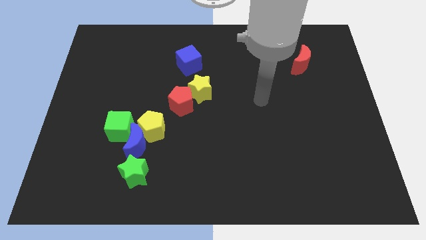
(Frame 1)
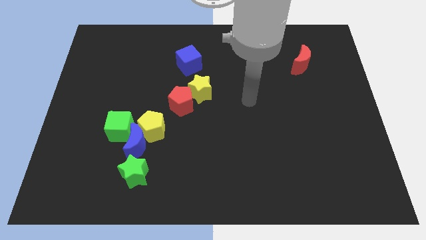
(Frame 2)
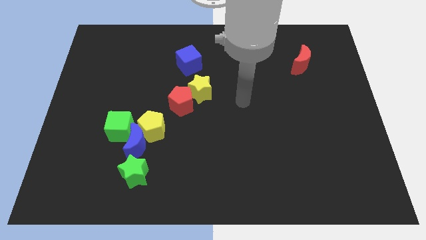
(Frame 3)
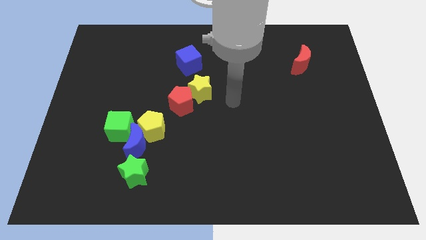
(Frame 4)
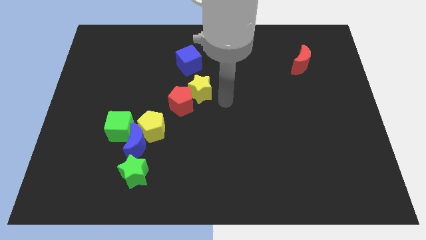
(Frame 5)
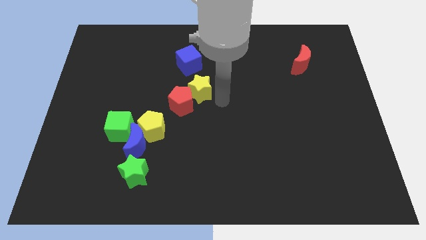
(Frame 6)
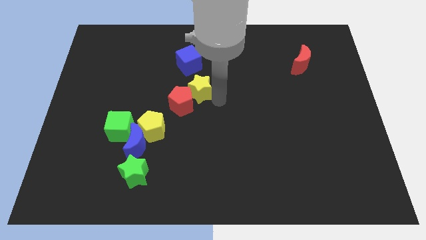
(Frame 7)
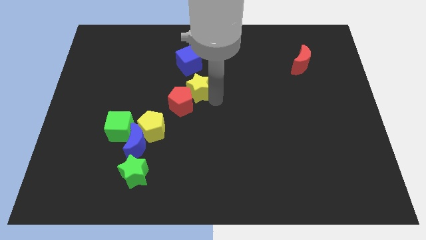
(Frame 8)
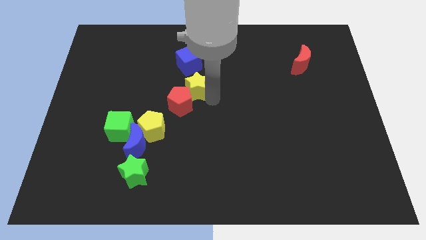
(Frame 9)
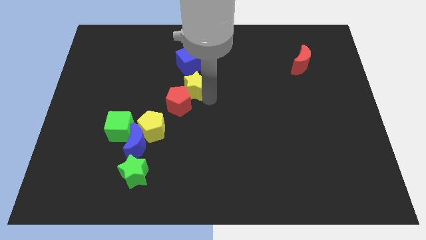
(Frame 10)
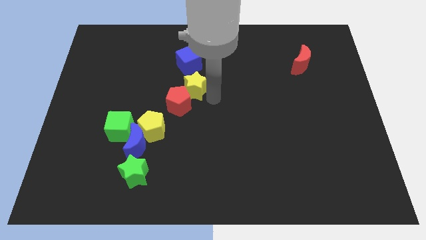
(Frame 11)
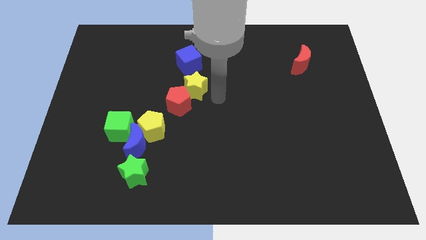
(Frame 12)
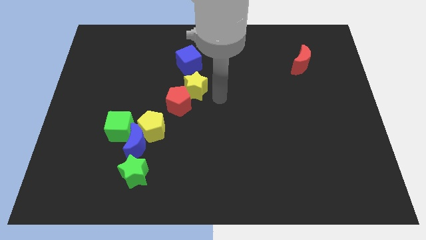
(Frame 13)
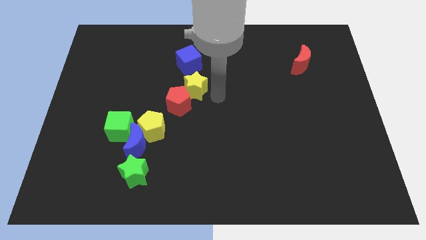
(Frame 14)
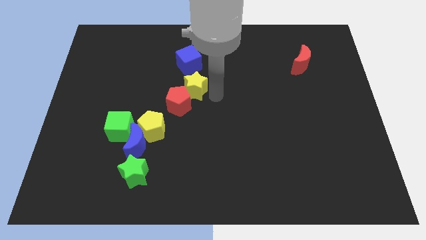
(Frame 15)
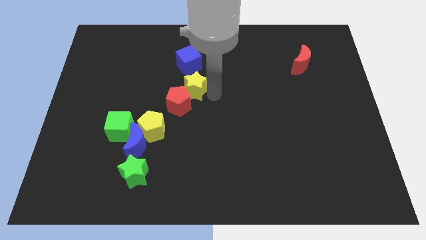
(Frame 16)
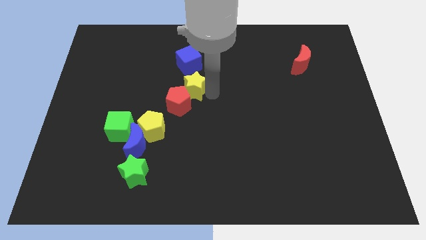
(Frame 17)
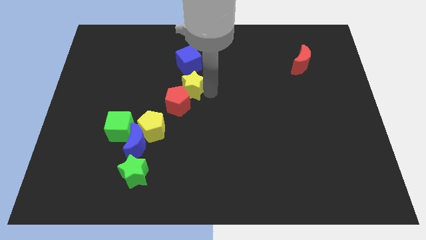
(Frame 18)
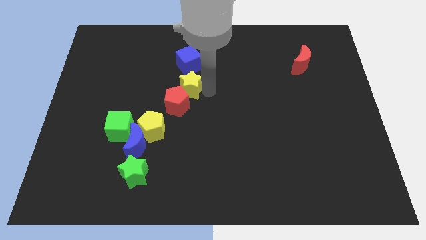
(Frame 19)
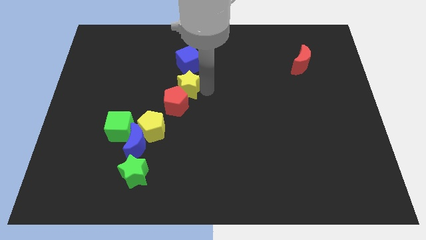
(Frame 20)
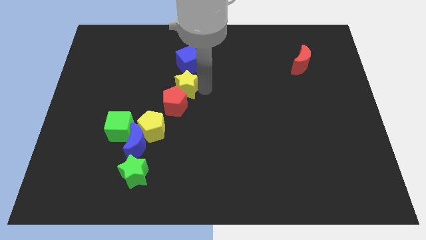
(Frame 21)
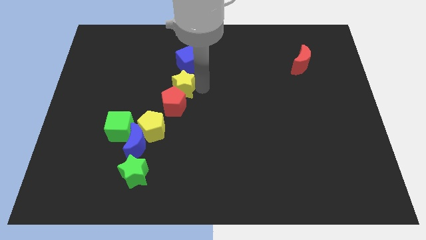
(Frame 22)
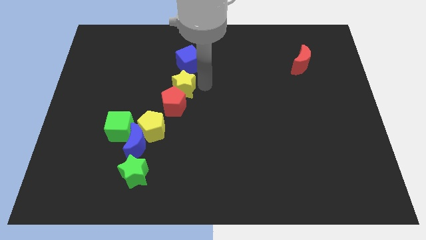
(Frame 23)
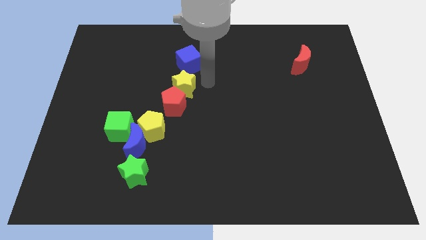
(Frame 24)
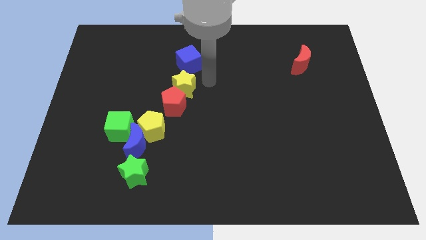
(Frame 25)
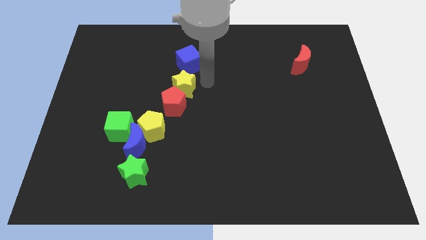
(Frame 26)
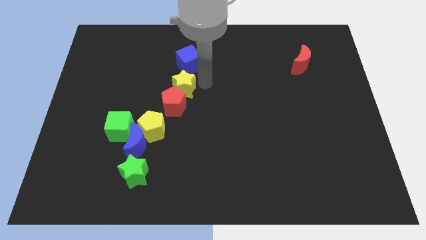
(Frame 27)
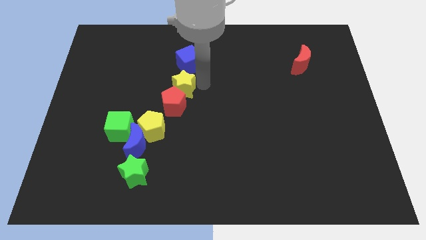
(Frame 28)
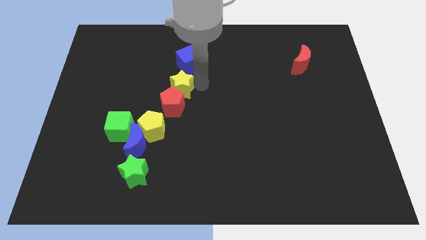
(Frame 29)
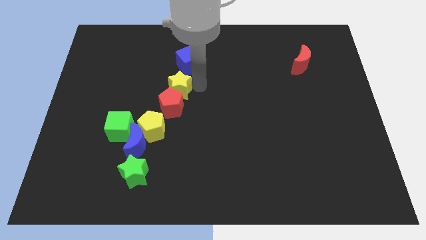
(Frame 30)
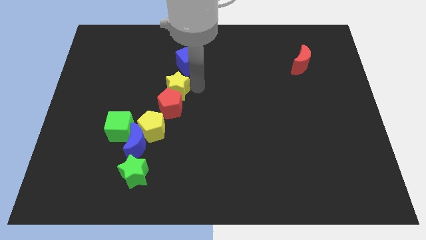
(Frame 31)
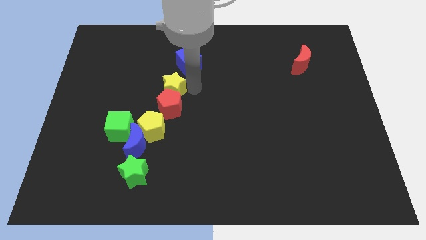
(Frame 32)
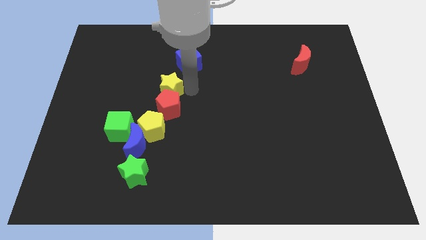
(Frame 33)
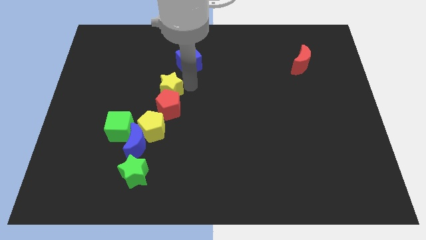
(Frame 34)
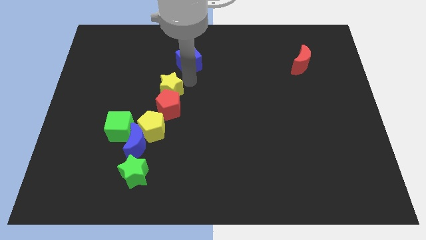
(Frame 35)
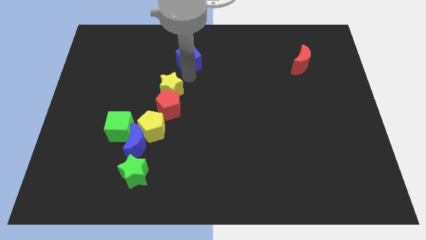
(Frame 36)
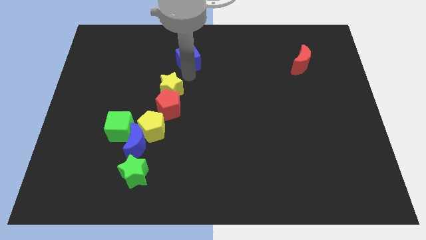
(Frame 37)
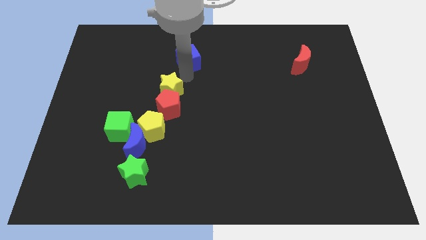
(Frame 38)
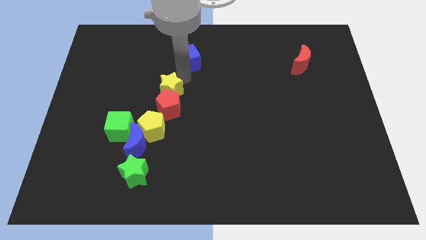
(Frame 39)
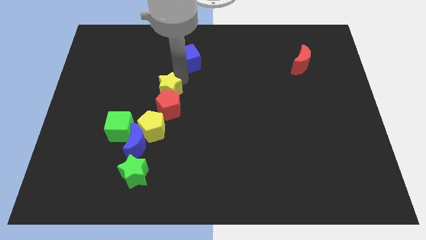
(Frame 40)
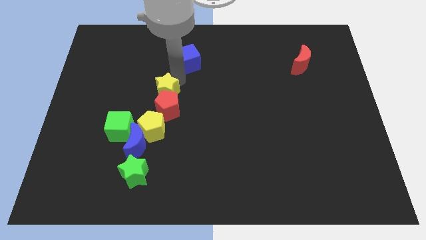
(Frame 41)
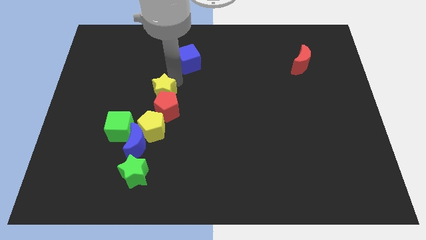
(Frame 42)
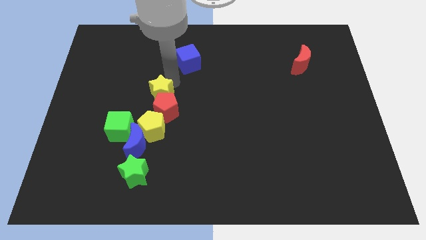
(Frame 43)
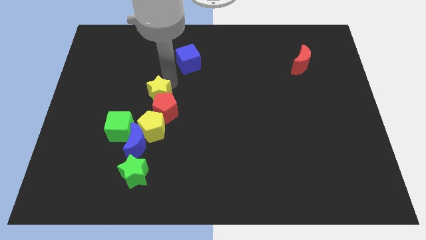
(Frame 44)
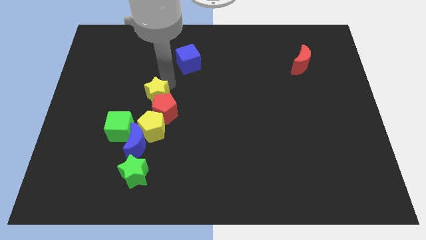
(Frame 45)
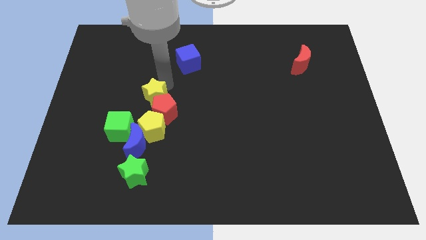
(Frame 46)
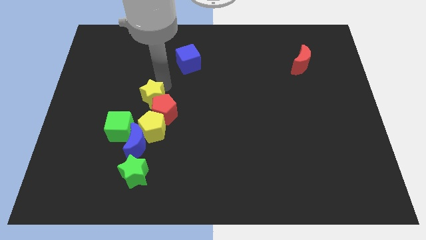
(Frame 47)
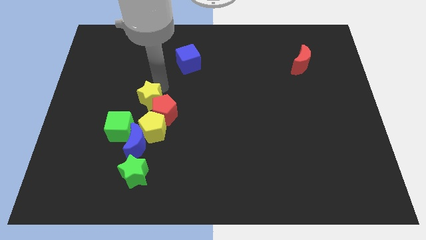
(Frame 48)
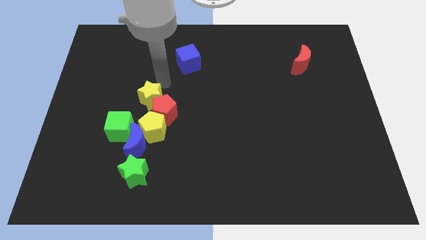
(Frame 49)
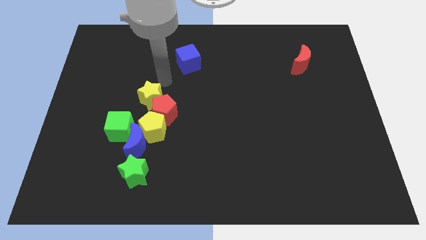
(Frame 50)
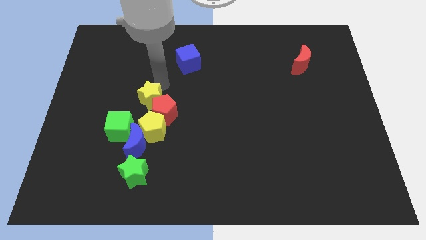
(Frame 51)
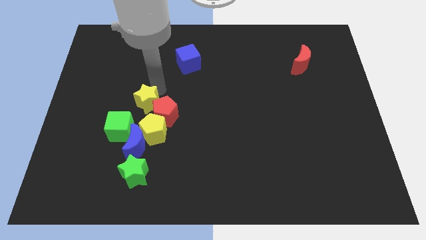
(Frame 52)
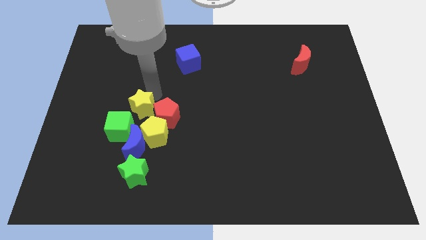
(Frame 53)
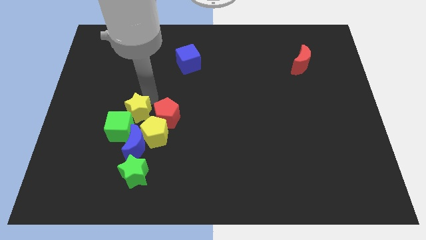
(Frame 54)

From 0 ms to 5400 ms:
move the yellow star next to the green cube

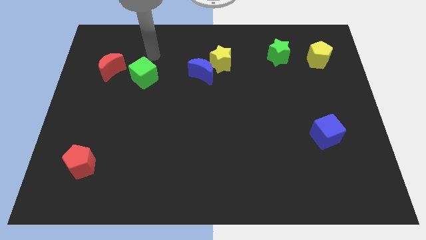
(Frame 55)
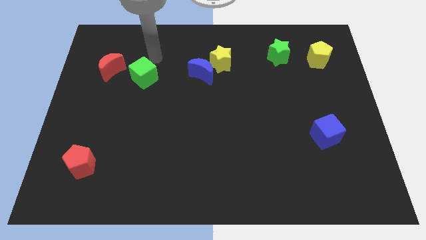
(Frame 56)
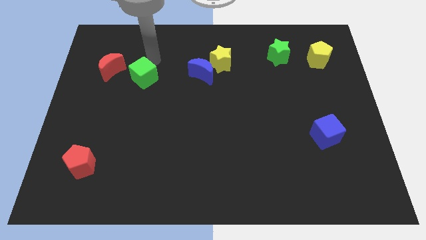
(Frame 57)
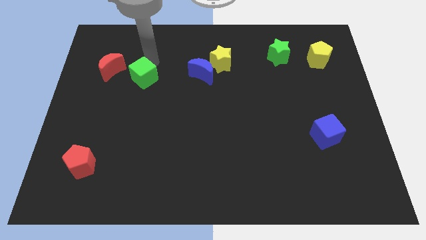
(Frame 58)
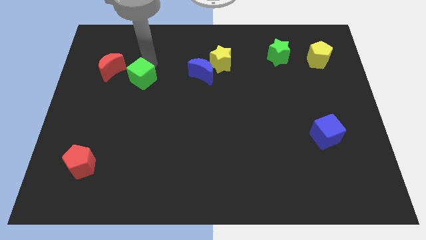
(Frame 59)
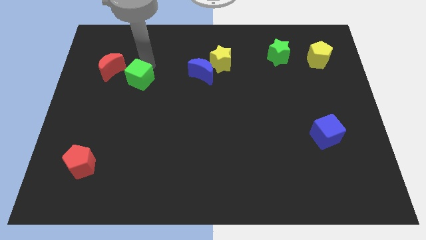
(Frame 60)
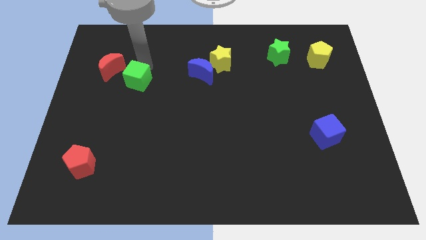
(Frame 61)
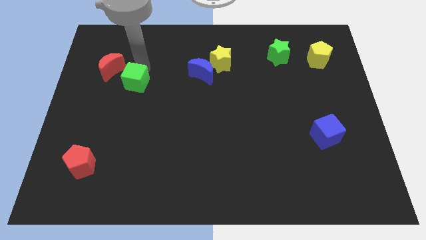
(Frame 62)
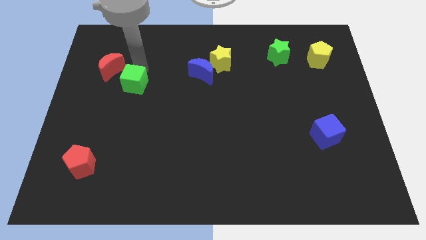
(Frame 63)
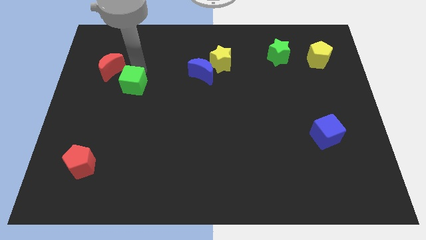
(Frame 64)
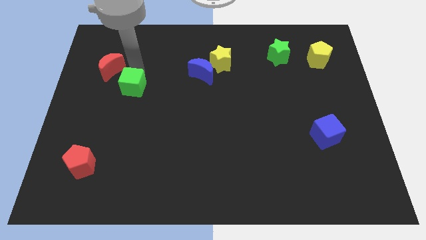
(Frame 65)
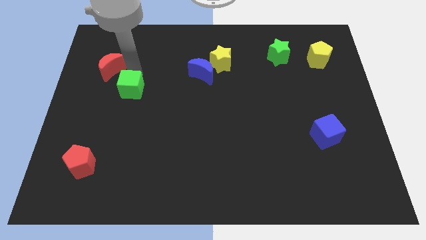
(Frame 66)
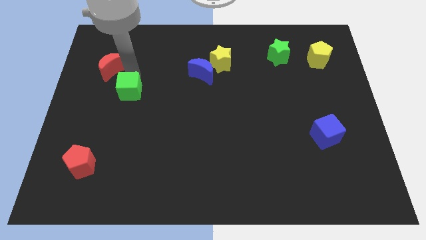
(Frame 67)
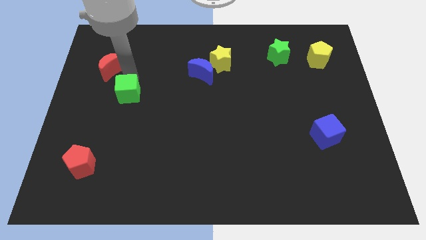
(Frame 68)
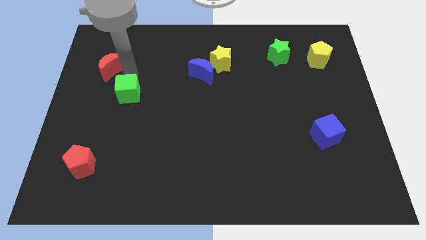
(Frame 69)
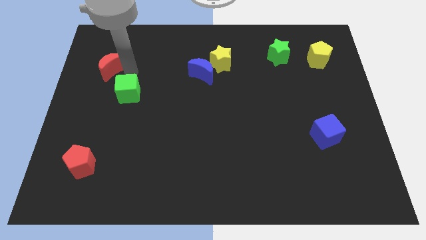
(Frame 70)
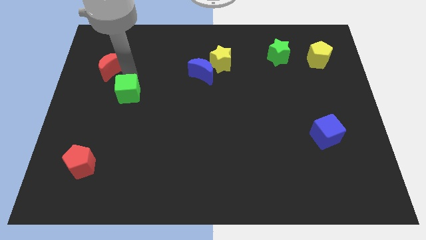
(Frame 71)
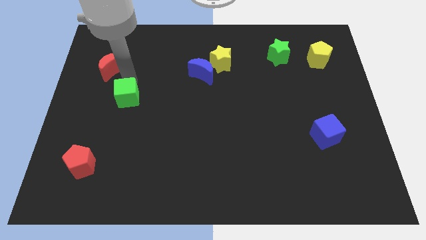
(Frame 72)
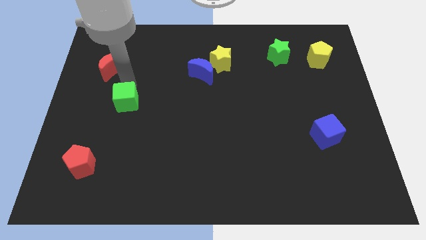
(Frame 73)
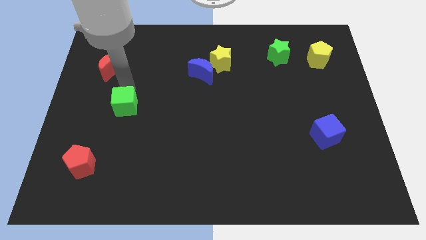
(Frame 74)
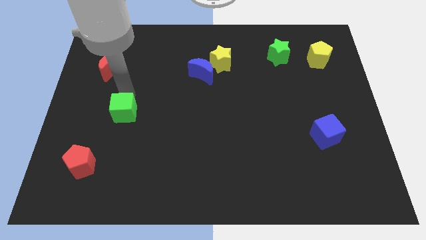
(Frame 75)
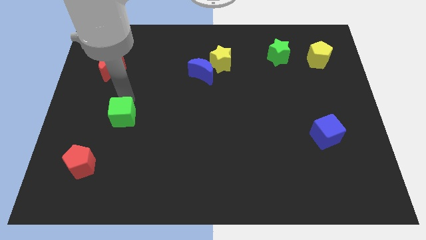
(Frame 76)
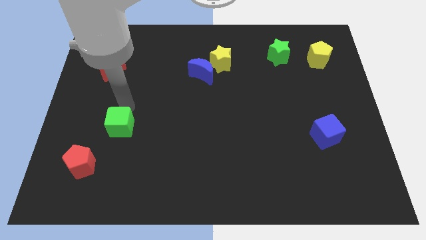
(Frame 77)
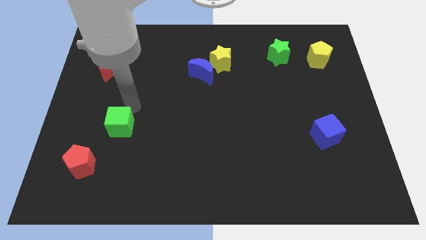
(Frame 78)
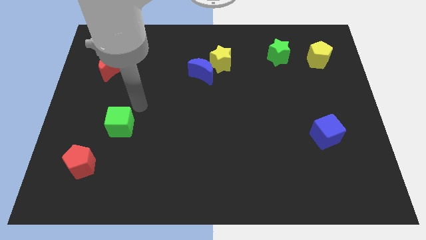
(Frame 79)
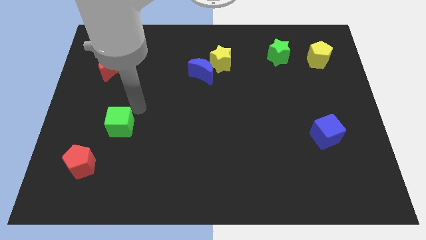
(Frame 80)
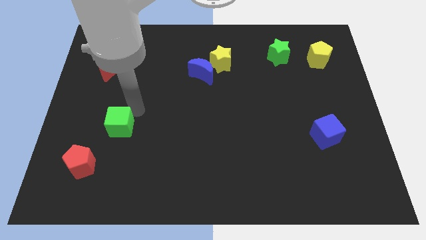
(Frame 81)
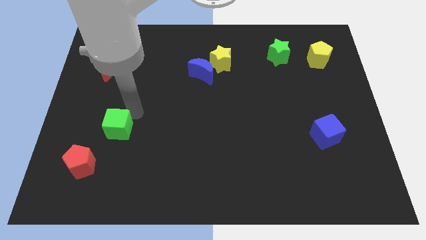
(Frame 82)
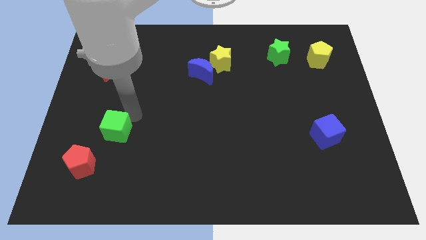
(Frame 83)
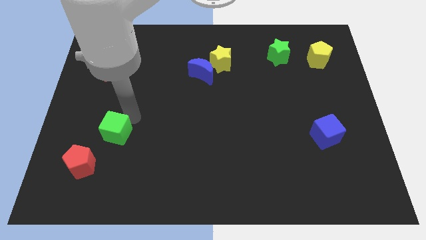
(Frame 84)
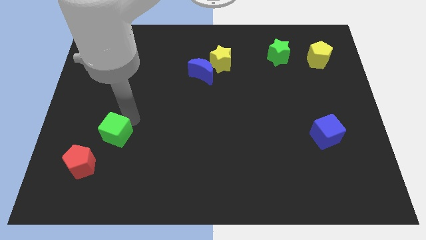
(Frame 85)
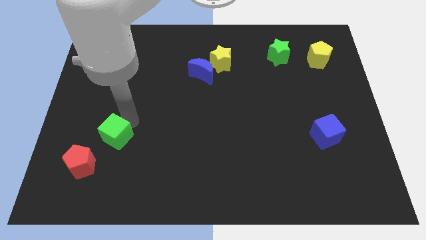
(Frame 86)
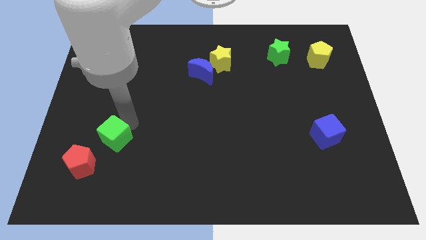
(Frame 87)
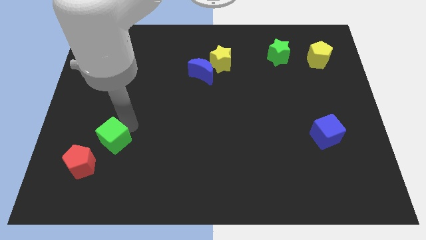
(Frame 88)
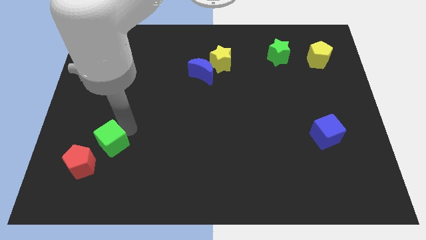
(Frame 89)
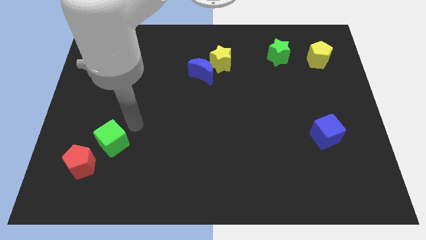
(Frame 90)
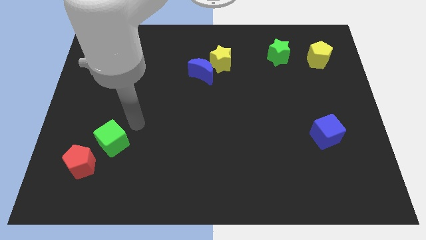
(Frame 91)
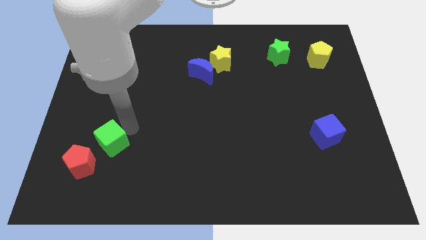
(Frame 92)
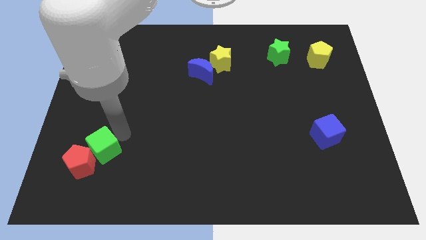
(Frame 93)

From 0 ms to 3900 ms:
put the green cube next to the red pentagon
